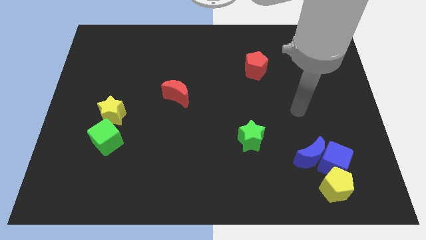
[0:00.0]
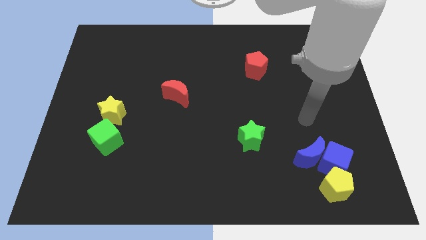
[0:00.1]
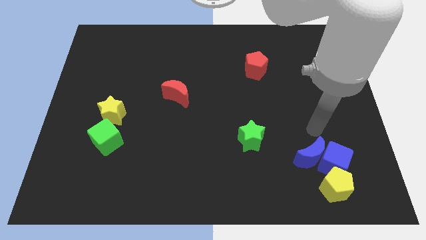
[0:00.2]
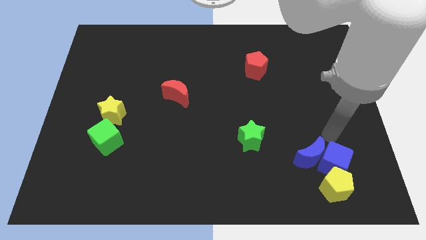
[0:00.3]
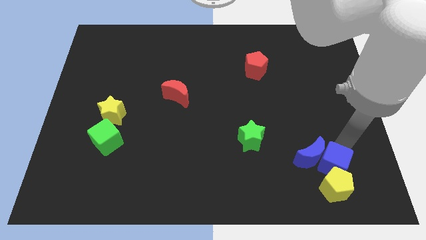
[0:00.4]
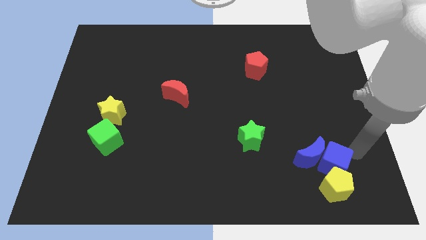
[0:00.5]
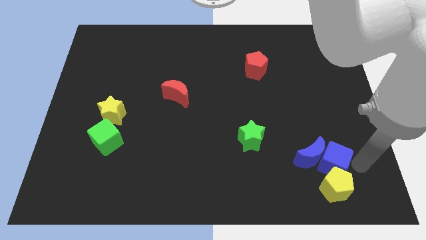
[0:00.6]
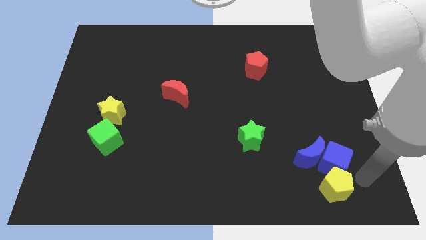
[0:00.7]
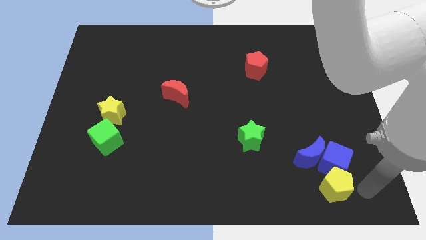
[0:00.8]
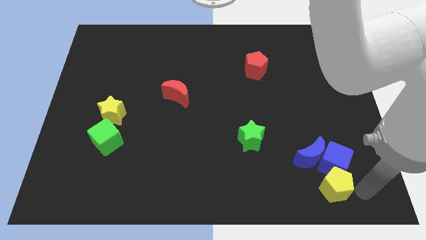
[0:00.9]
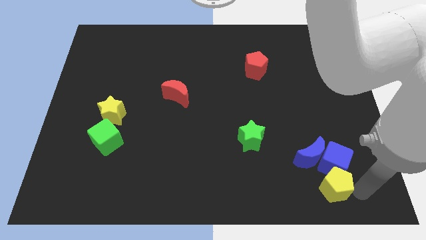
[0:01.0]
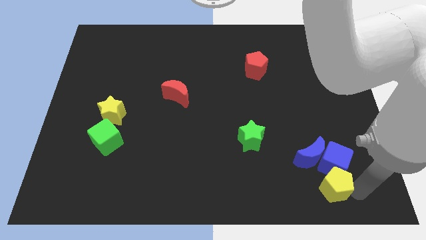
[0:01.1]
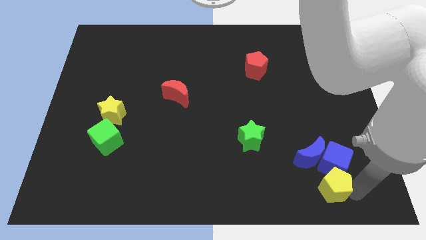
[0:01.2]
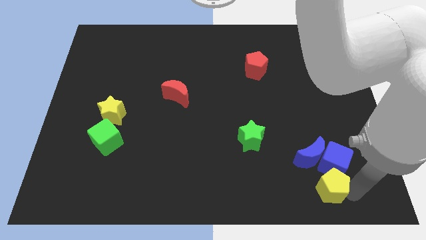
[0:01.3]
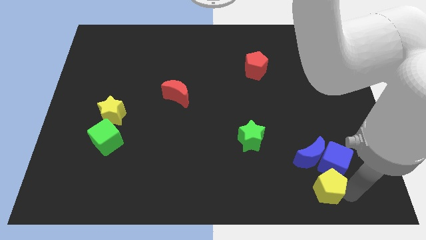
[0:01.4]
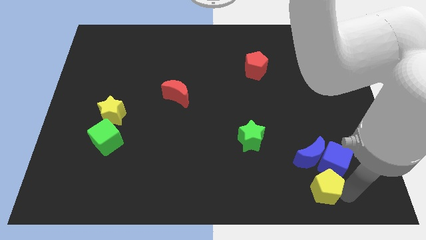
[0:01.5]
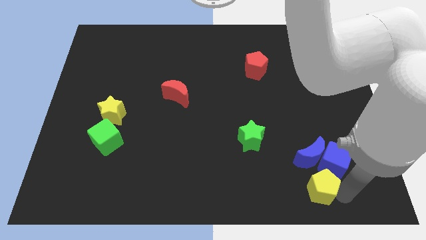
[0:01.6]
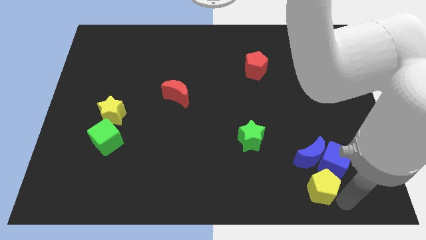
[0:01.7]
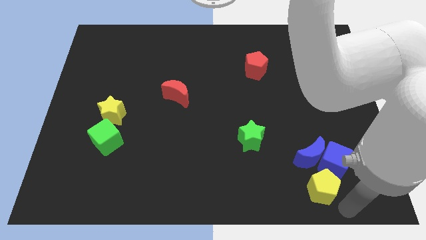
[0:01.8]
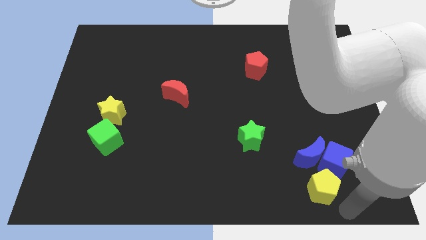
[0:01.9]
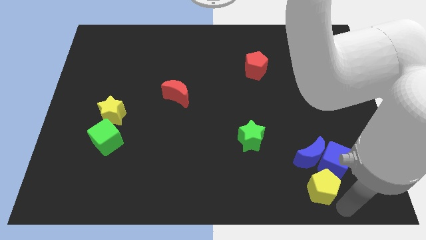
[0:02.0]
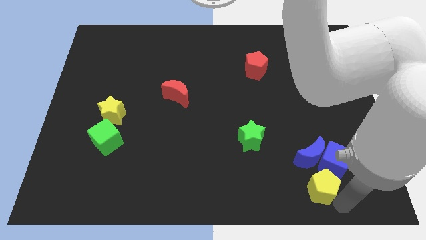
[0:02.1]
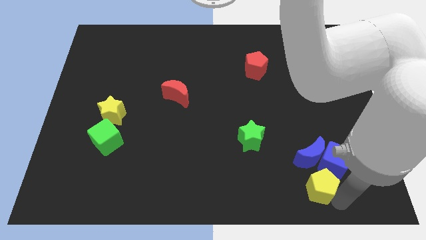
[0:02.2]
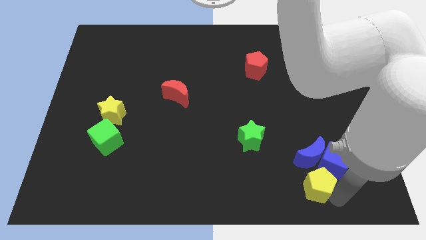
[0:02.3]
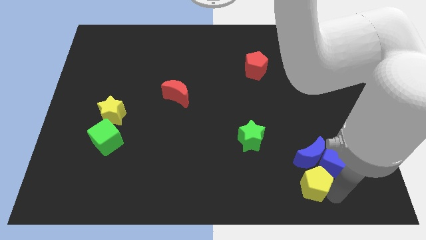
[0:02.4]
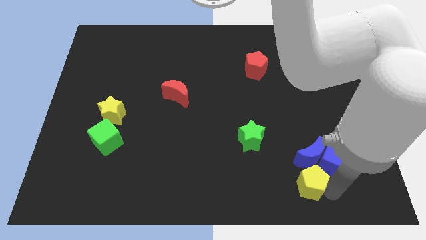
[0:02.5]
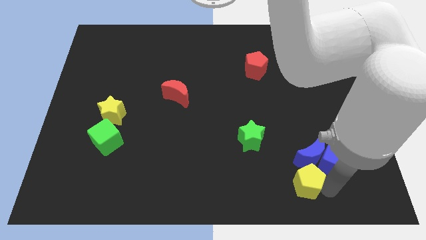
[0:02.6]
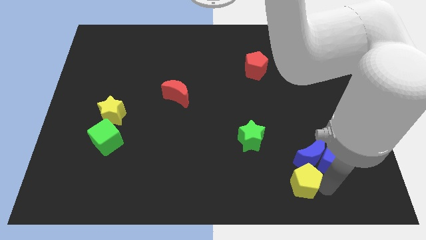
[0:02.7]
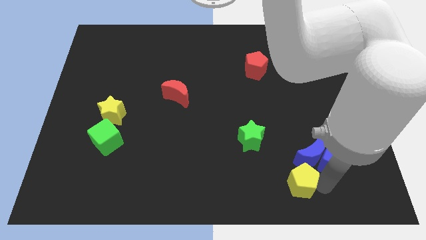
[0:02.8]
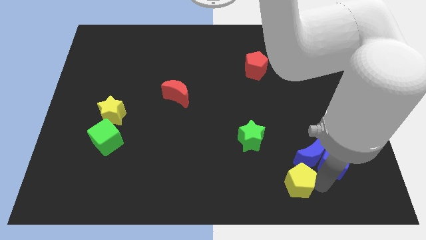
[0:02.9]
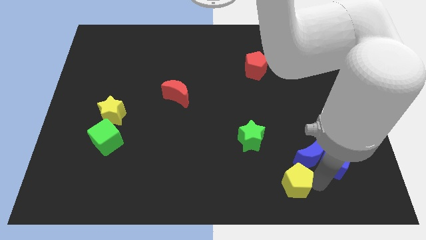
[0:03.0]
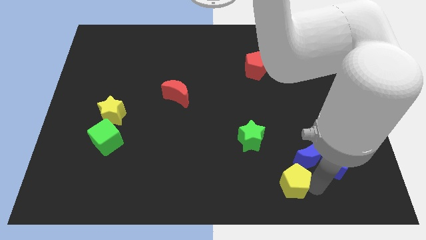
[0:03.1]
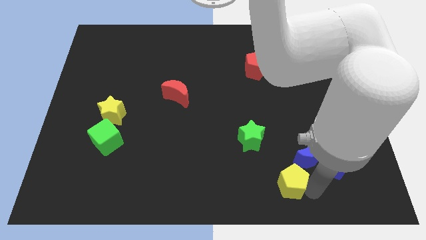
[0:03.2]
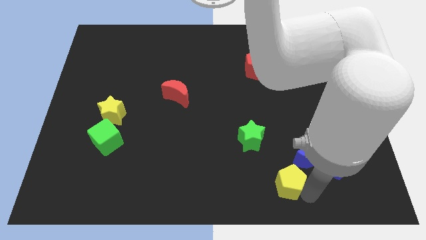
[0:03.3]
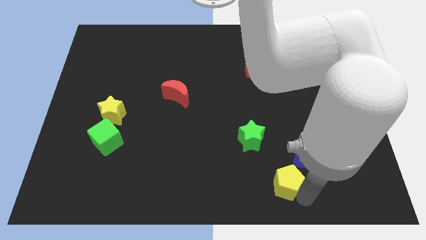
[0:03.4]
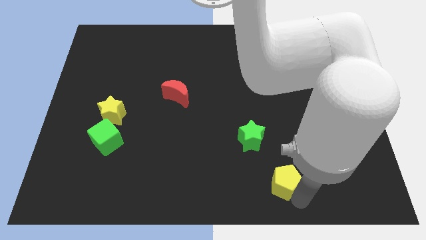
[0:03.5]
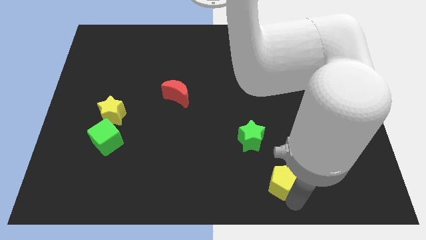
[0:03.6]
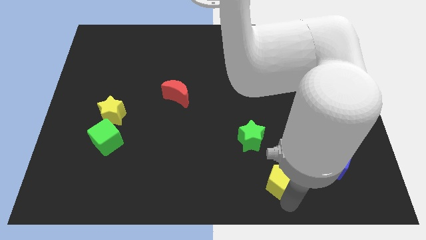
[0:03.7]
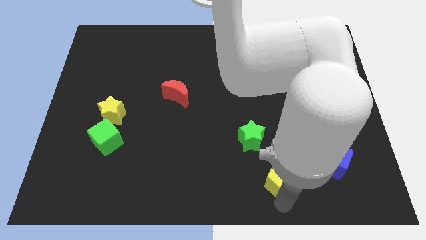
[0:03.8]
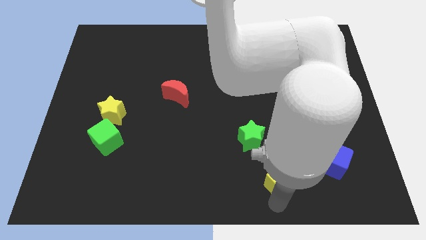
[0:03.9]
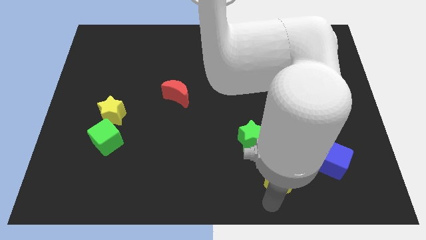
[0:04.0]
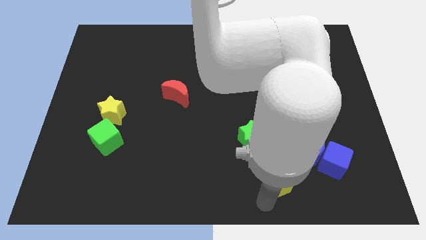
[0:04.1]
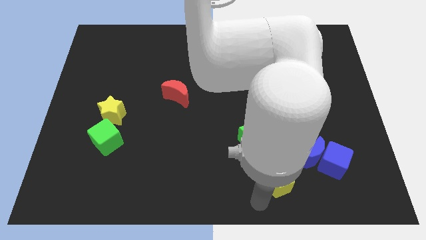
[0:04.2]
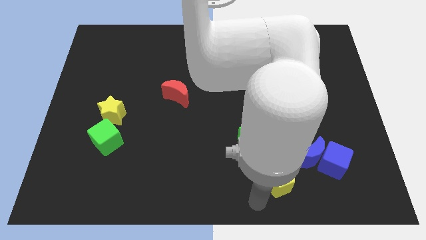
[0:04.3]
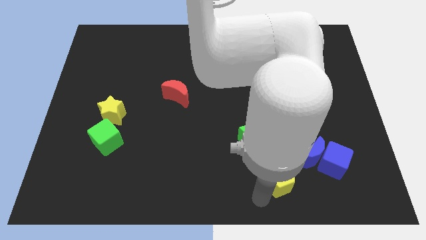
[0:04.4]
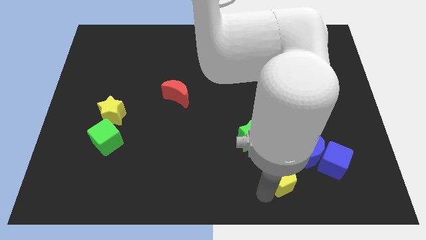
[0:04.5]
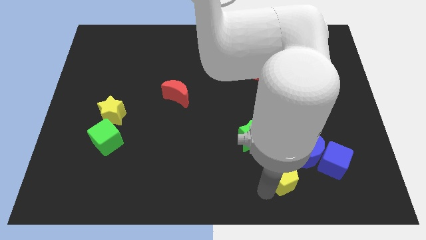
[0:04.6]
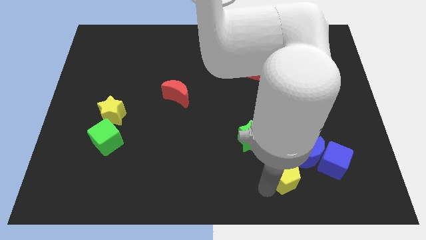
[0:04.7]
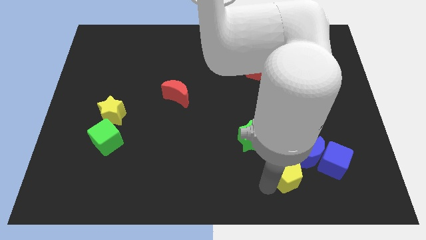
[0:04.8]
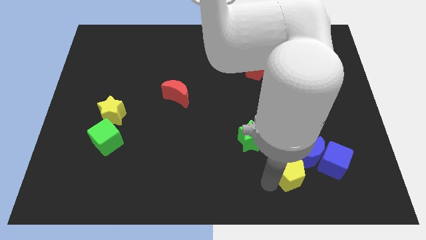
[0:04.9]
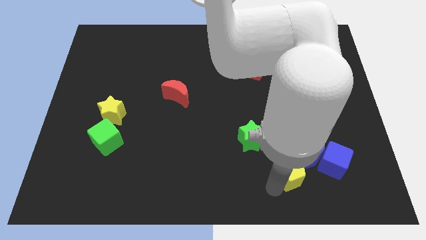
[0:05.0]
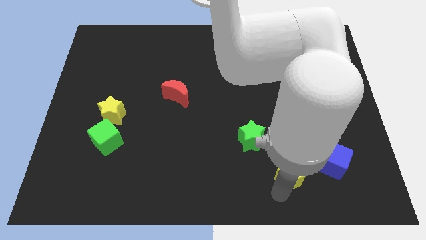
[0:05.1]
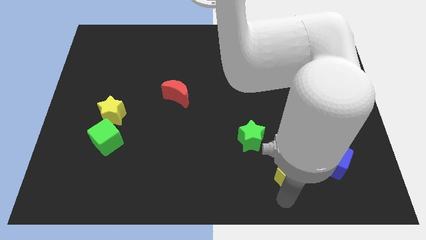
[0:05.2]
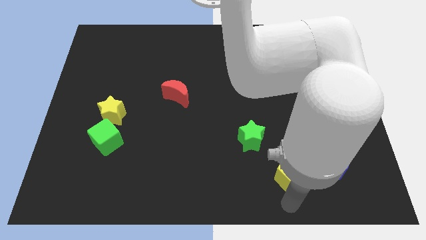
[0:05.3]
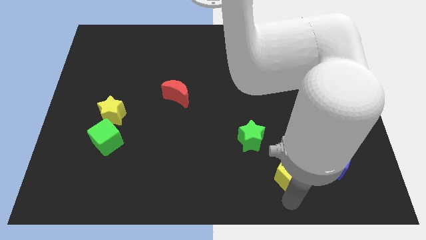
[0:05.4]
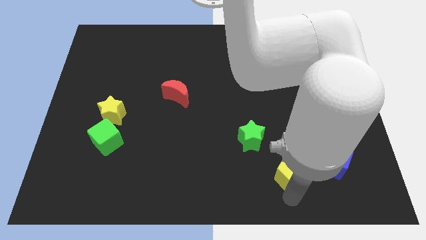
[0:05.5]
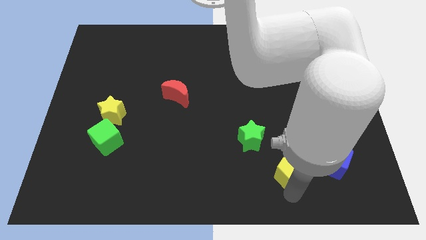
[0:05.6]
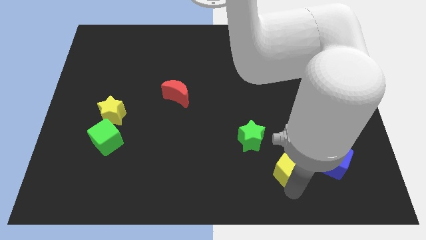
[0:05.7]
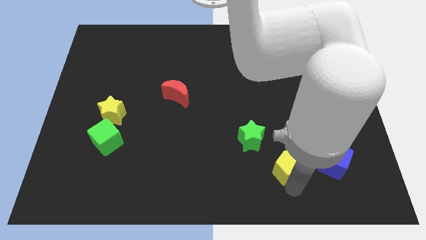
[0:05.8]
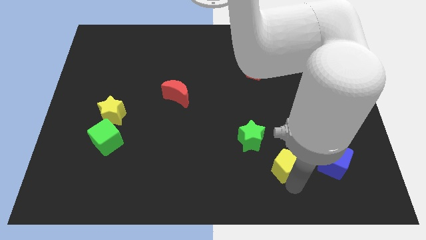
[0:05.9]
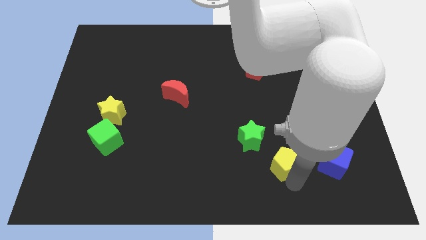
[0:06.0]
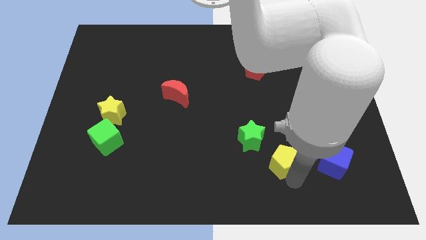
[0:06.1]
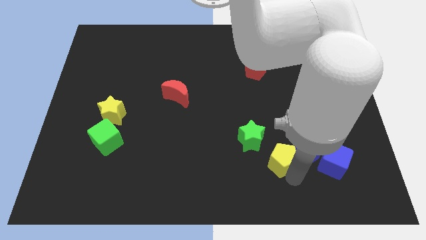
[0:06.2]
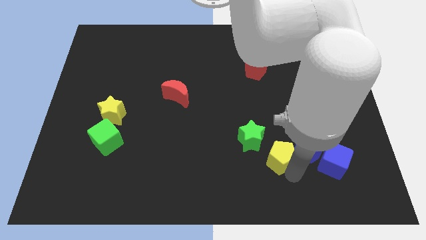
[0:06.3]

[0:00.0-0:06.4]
push the yellow pentagon right of the green star
